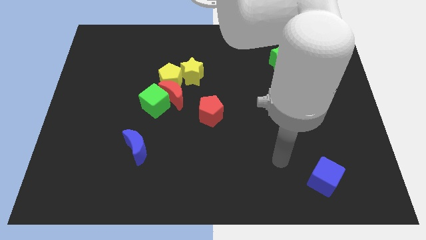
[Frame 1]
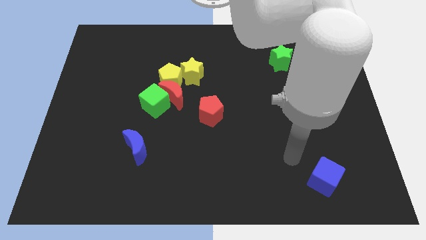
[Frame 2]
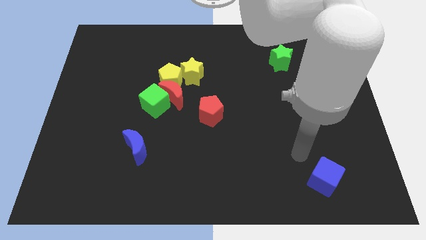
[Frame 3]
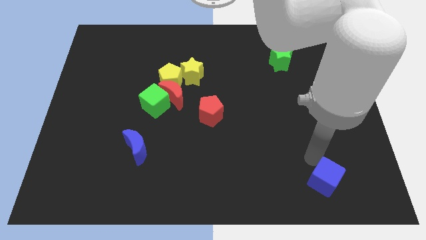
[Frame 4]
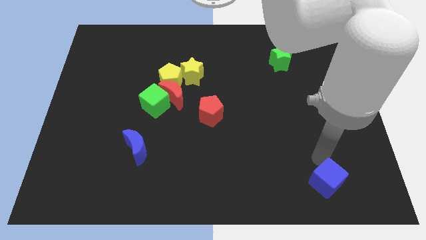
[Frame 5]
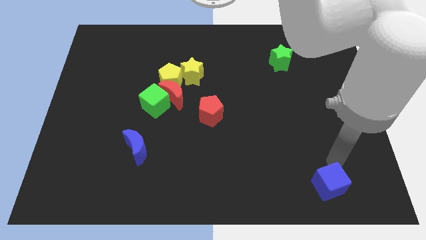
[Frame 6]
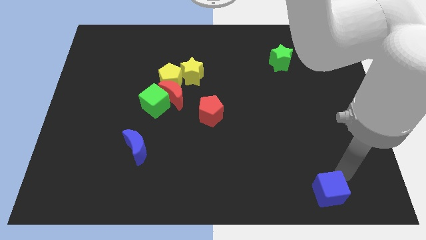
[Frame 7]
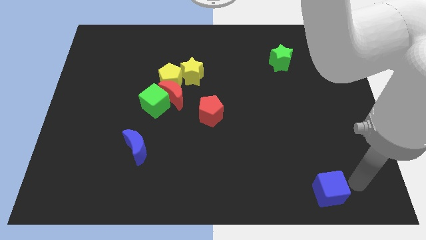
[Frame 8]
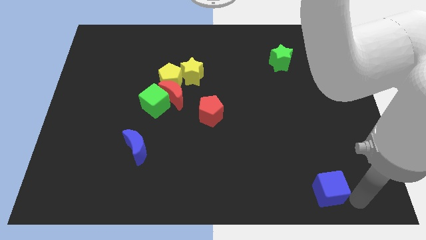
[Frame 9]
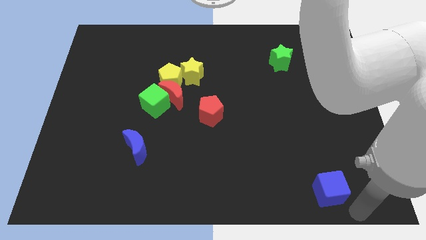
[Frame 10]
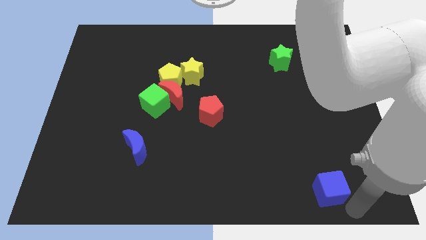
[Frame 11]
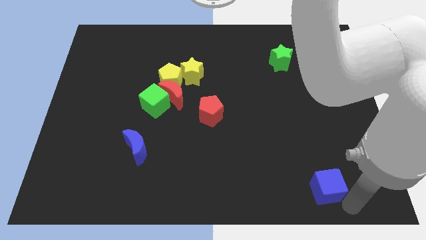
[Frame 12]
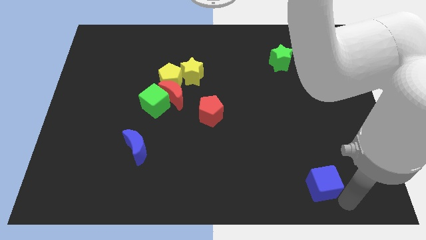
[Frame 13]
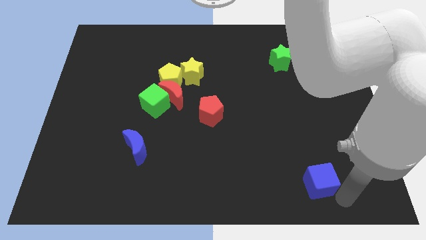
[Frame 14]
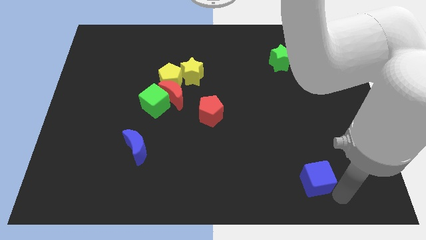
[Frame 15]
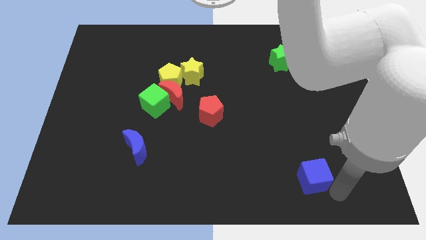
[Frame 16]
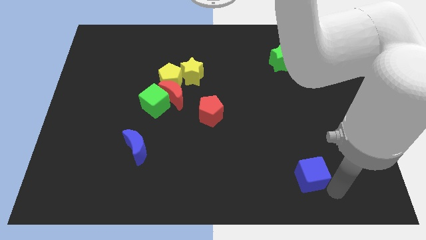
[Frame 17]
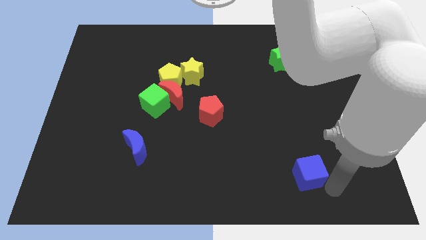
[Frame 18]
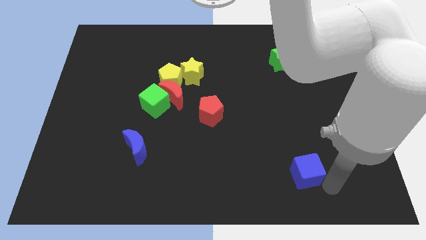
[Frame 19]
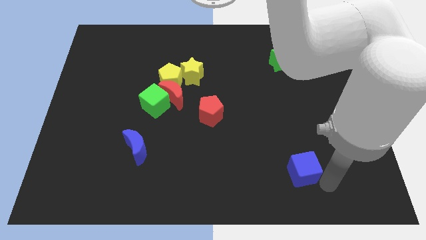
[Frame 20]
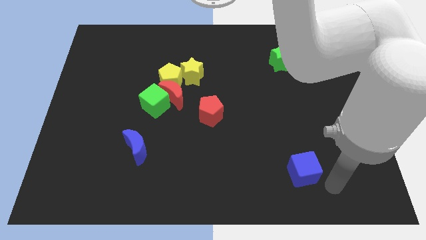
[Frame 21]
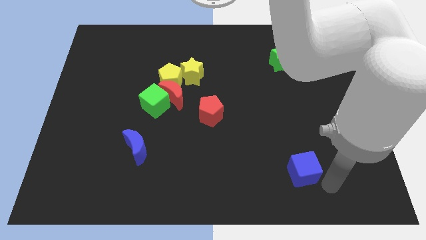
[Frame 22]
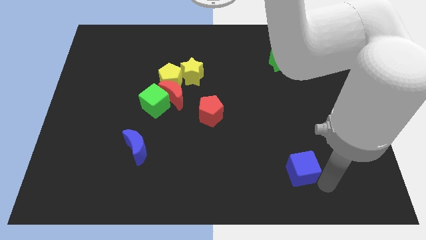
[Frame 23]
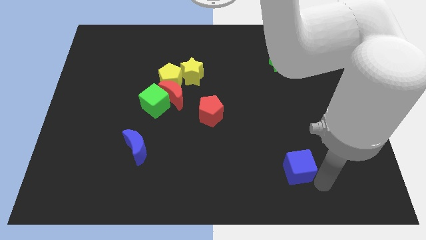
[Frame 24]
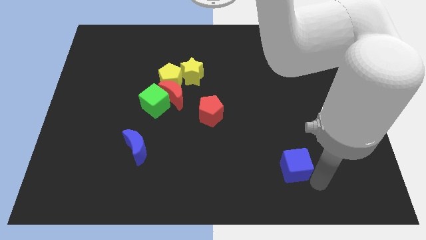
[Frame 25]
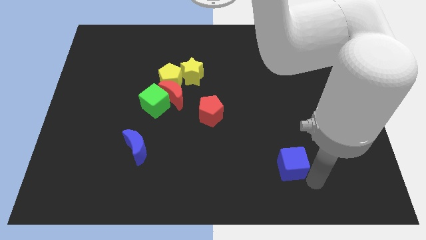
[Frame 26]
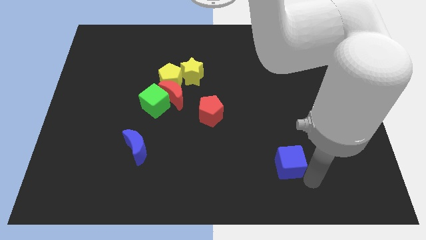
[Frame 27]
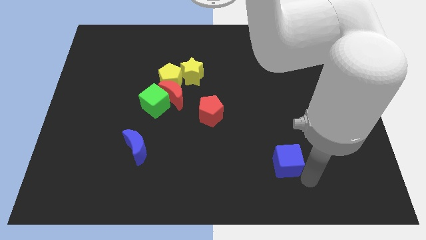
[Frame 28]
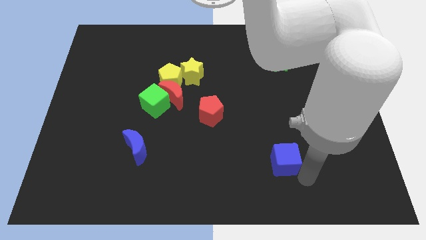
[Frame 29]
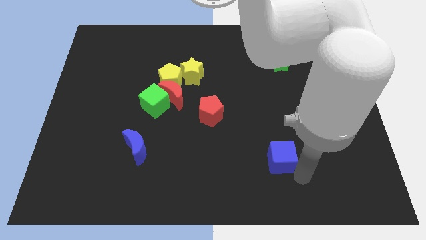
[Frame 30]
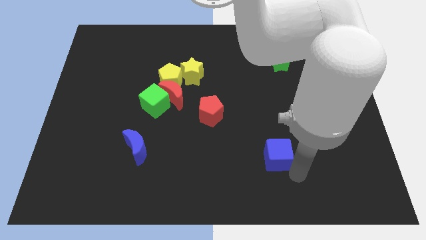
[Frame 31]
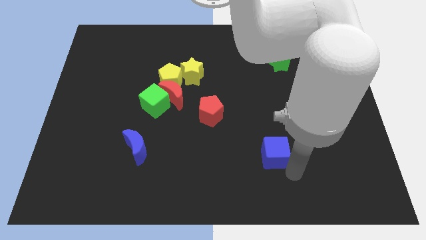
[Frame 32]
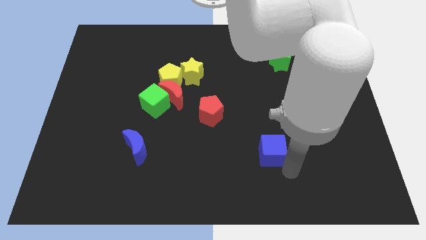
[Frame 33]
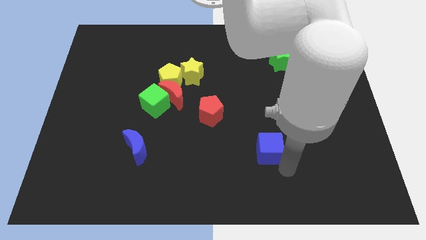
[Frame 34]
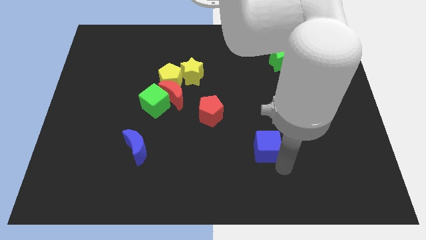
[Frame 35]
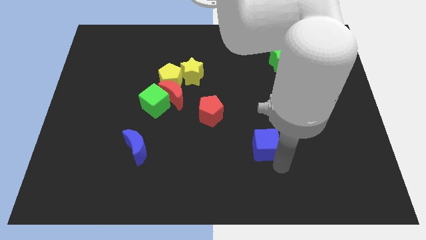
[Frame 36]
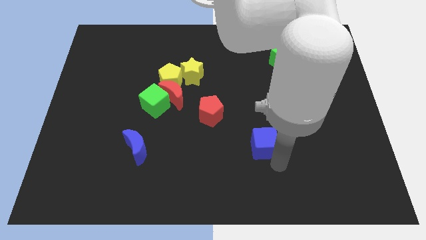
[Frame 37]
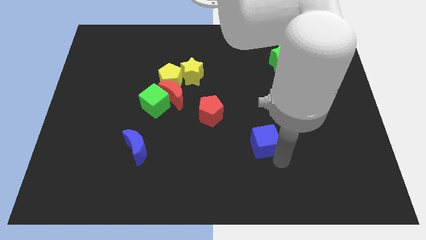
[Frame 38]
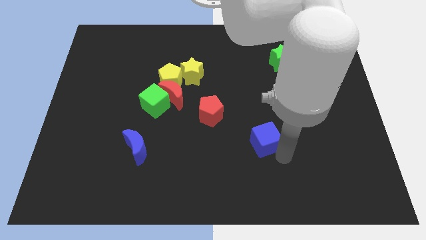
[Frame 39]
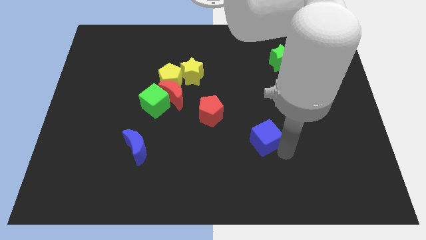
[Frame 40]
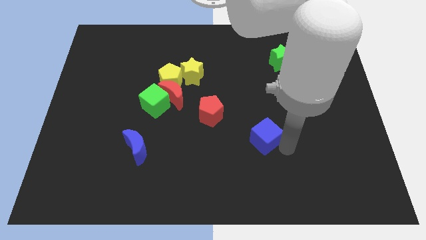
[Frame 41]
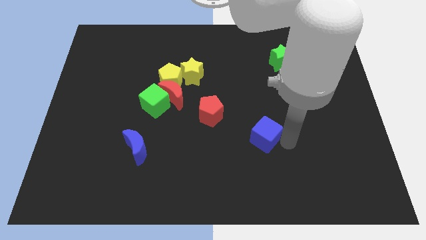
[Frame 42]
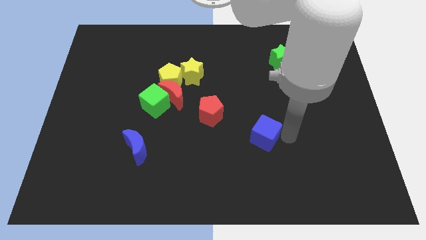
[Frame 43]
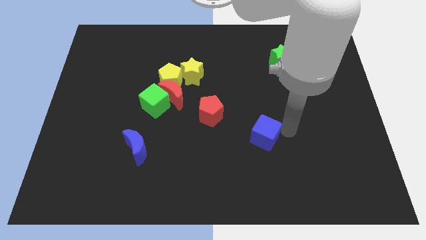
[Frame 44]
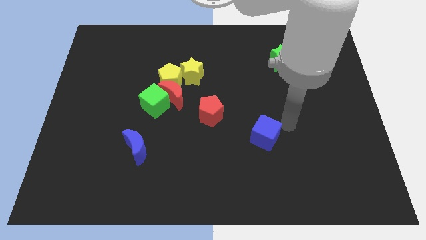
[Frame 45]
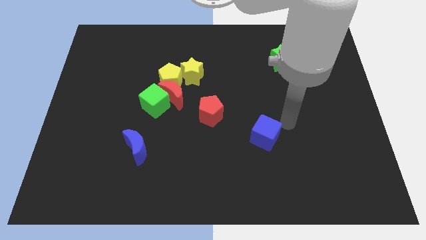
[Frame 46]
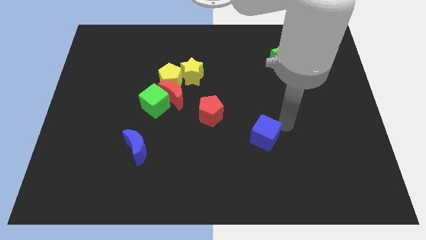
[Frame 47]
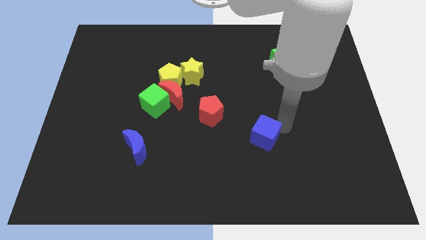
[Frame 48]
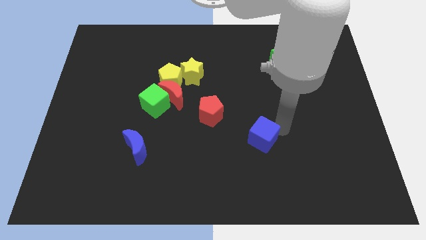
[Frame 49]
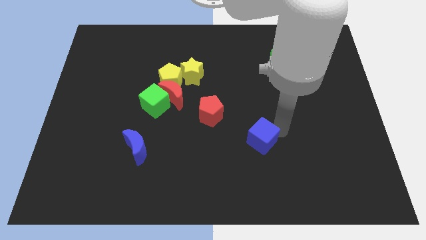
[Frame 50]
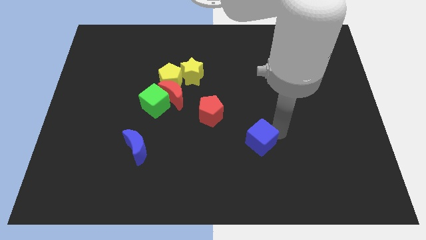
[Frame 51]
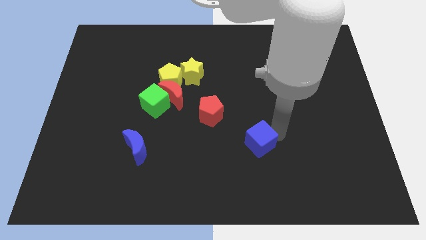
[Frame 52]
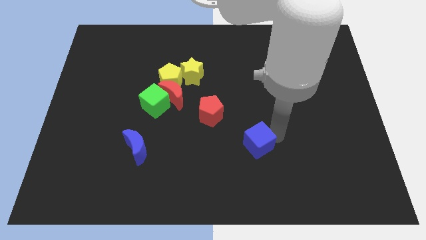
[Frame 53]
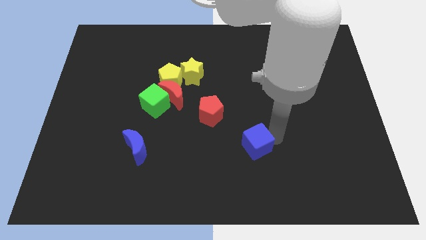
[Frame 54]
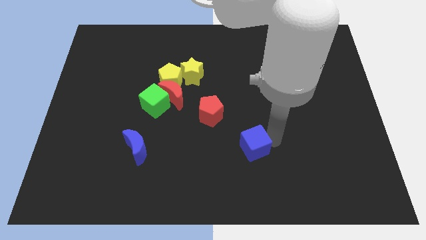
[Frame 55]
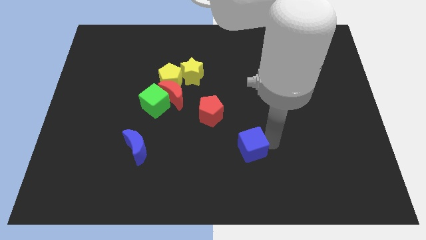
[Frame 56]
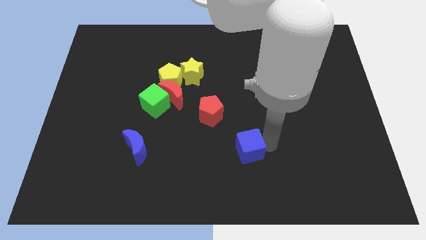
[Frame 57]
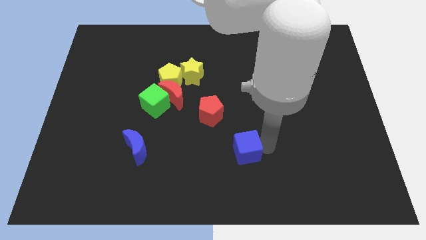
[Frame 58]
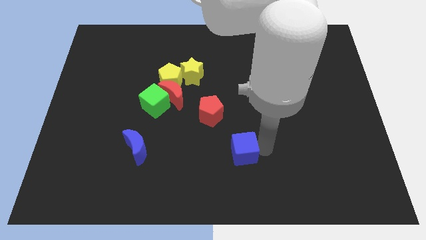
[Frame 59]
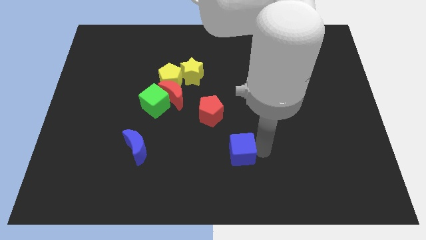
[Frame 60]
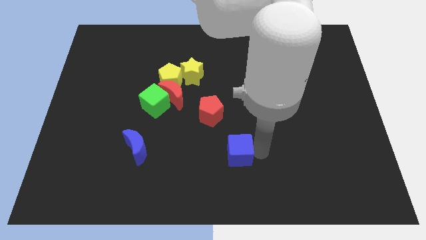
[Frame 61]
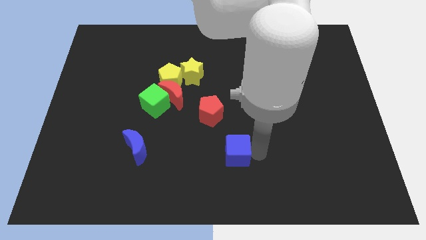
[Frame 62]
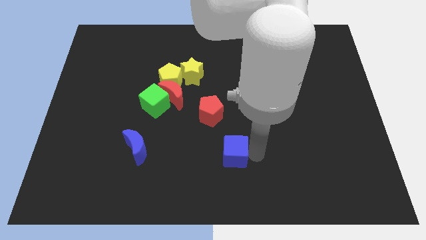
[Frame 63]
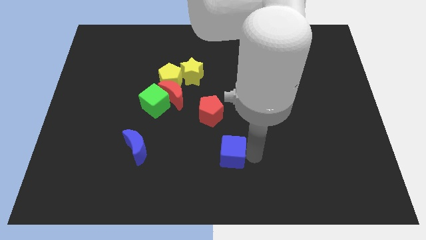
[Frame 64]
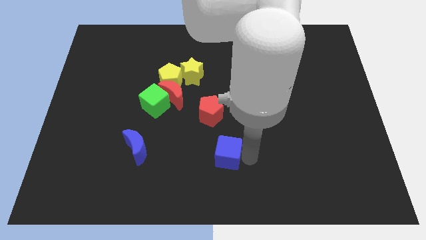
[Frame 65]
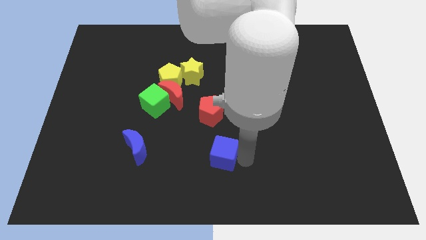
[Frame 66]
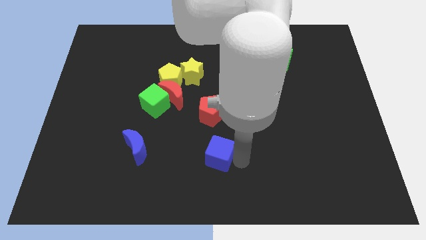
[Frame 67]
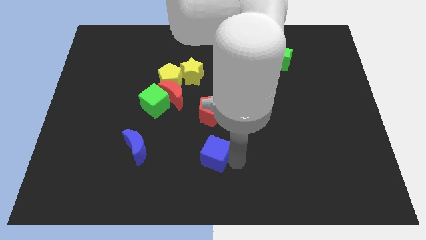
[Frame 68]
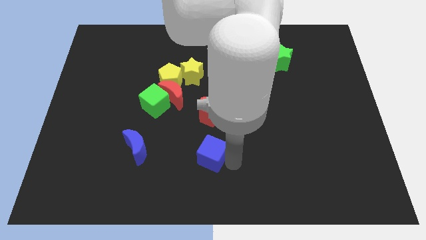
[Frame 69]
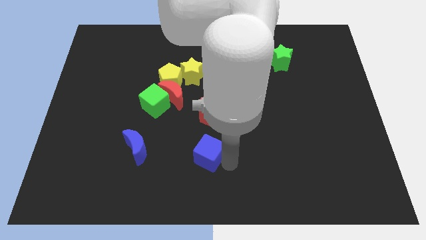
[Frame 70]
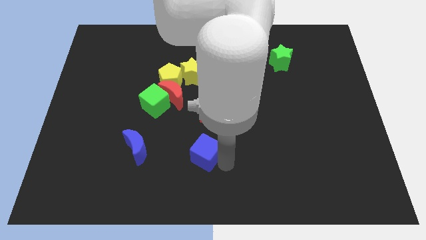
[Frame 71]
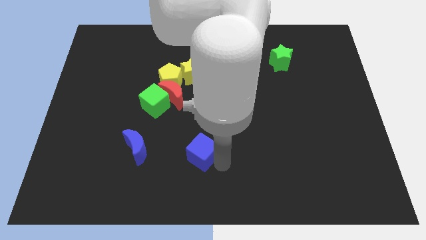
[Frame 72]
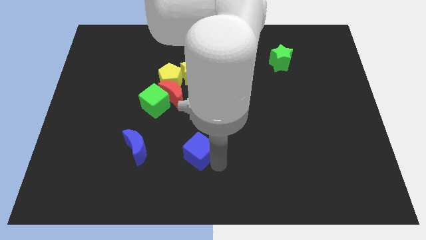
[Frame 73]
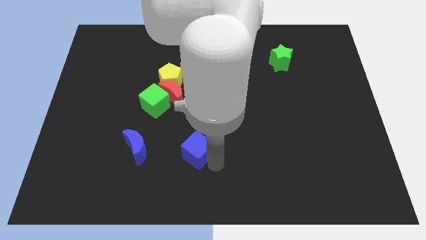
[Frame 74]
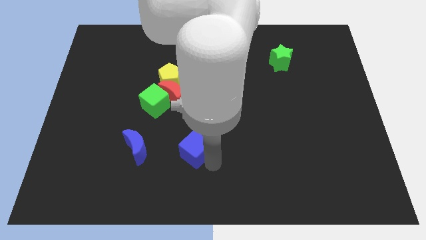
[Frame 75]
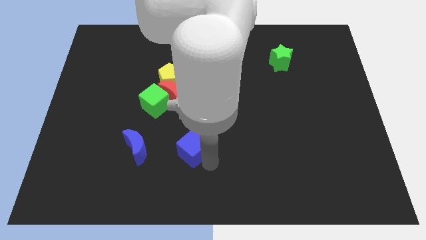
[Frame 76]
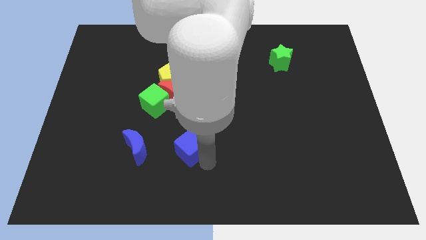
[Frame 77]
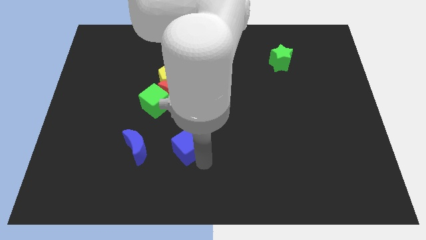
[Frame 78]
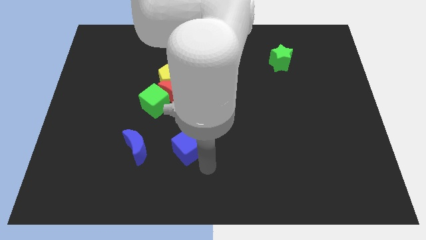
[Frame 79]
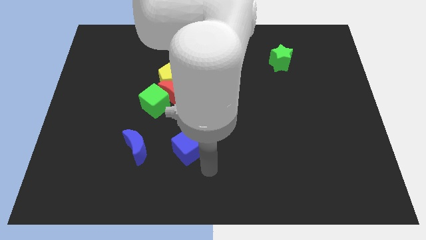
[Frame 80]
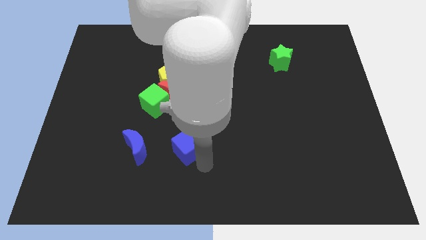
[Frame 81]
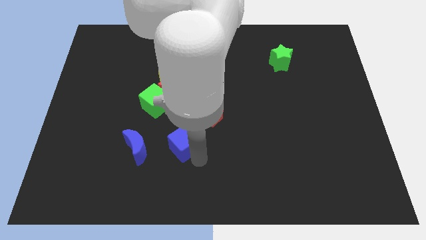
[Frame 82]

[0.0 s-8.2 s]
slide the blue cube to the bottom of the red moon
